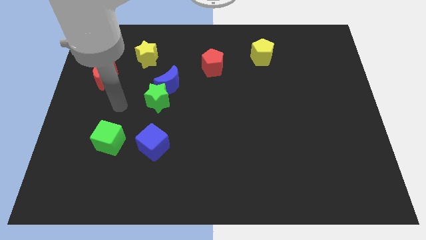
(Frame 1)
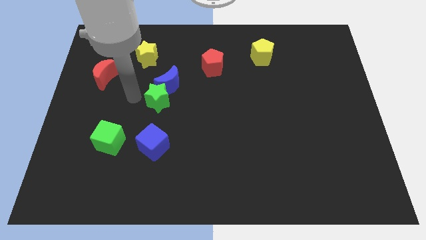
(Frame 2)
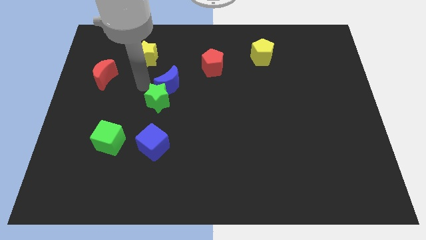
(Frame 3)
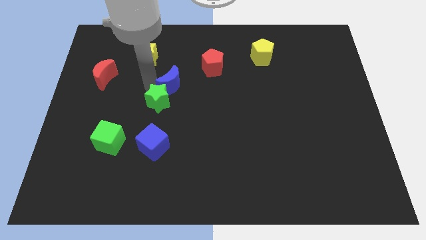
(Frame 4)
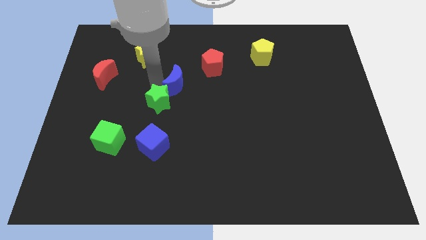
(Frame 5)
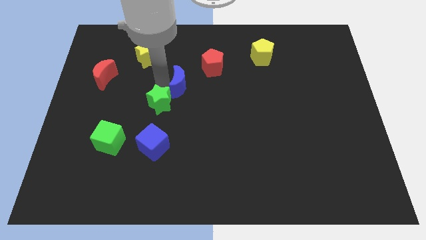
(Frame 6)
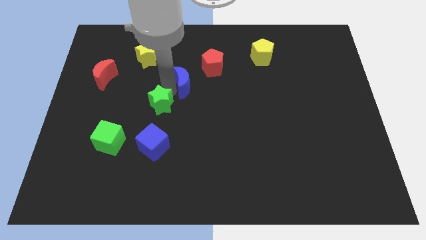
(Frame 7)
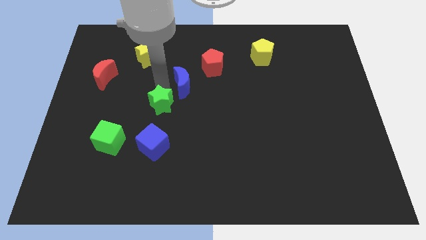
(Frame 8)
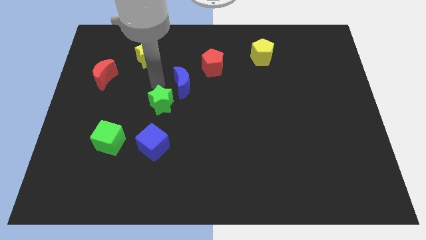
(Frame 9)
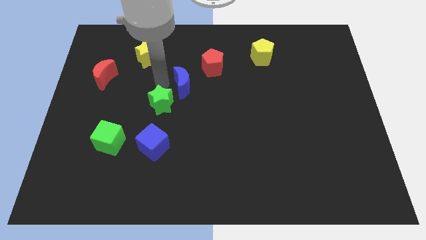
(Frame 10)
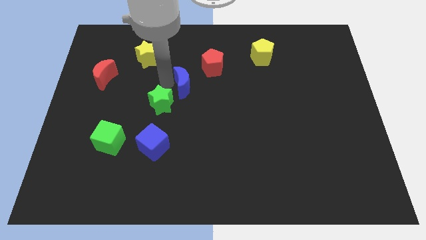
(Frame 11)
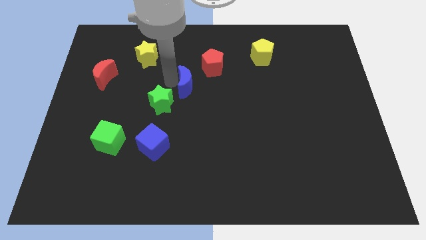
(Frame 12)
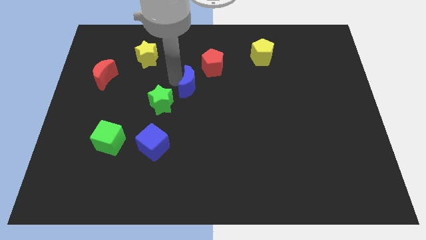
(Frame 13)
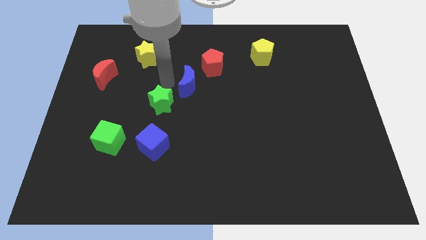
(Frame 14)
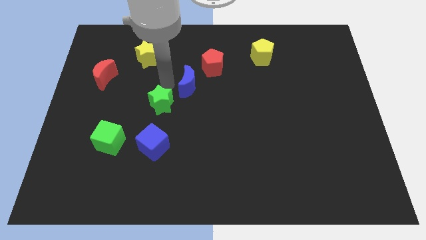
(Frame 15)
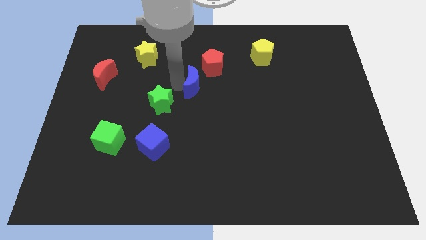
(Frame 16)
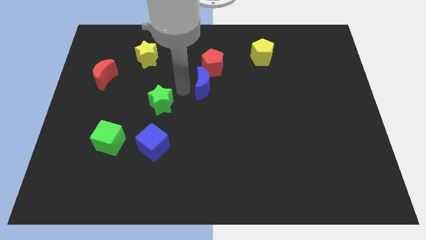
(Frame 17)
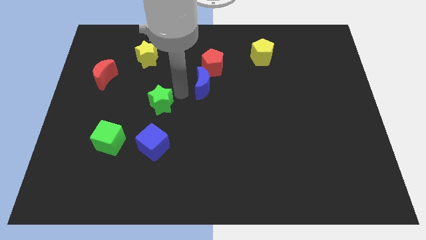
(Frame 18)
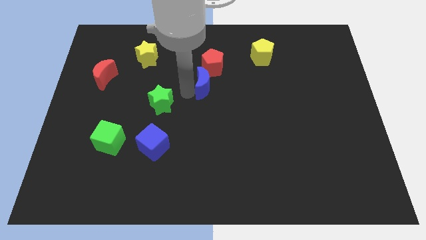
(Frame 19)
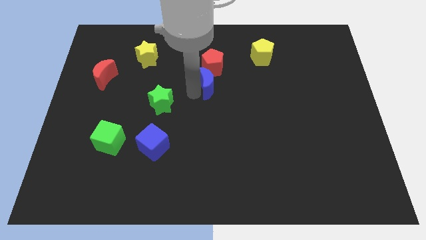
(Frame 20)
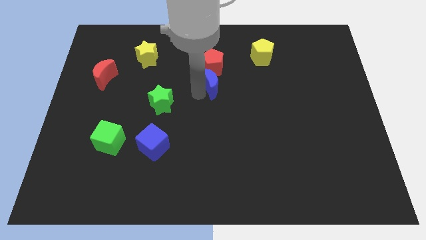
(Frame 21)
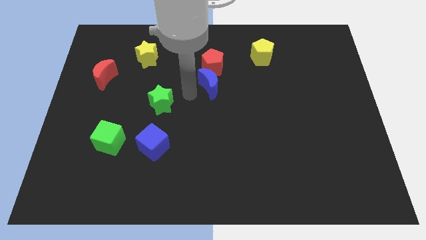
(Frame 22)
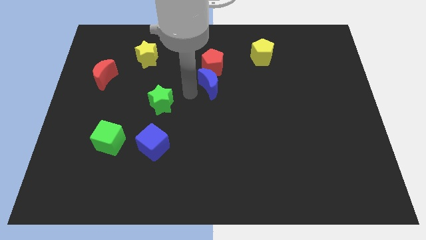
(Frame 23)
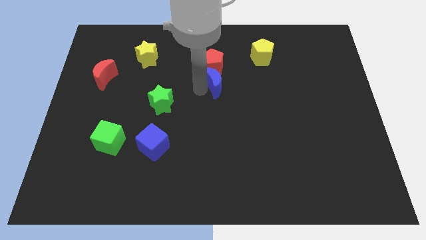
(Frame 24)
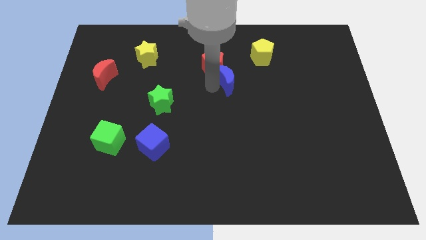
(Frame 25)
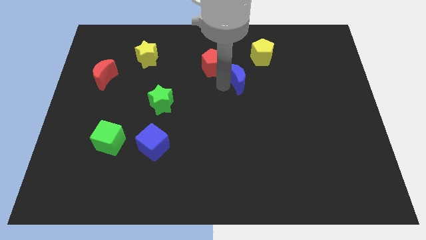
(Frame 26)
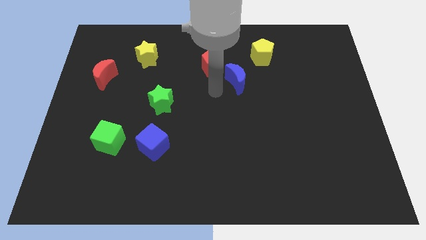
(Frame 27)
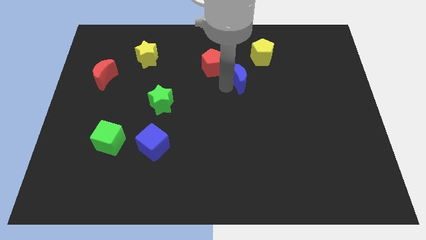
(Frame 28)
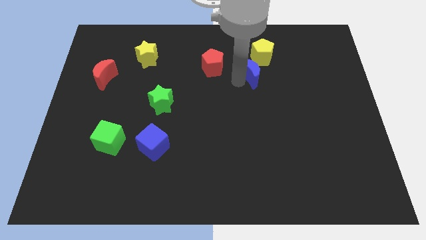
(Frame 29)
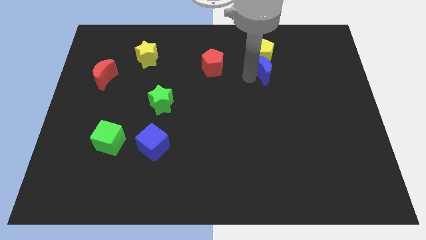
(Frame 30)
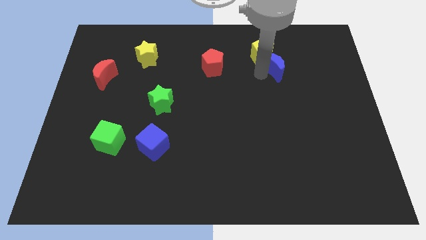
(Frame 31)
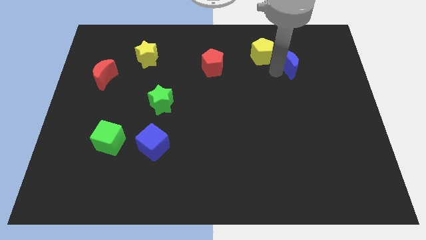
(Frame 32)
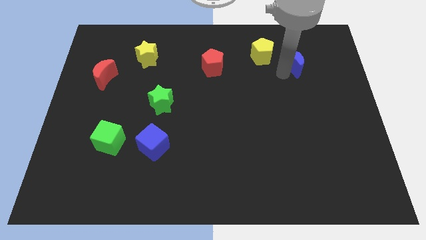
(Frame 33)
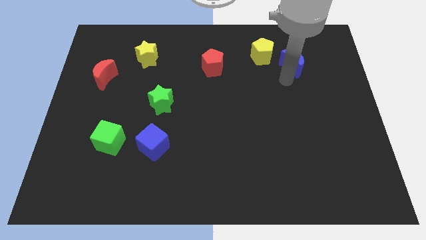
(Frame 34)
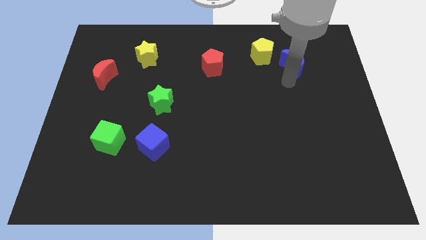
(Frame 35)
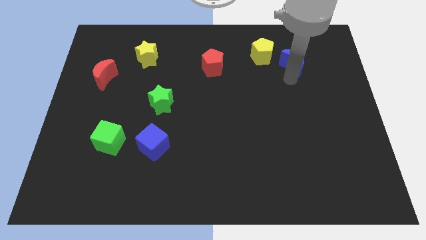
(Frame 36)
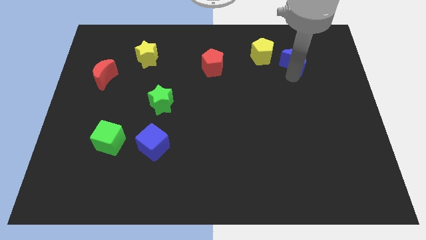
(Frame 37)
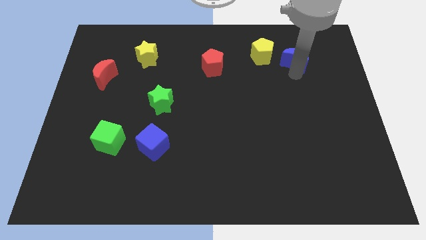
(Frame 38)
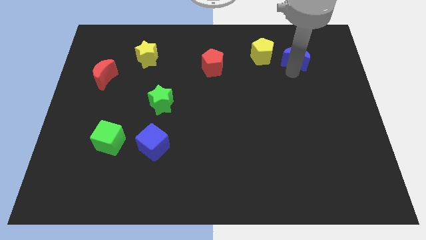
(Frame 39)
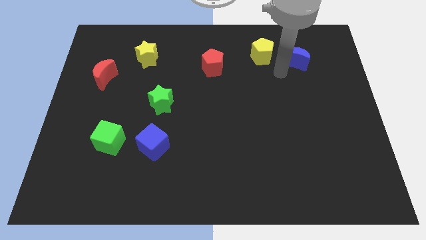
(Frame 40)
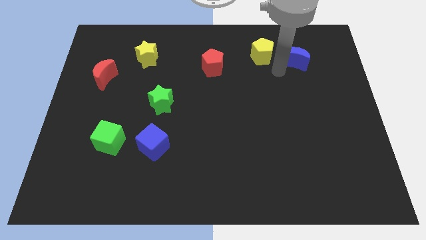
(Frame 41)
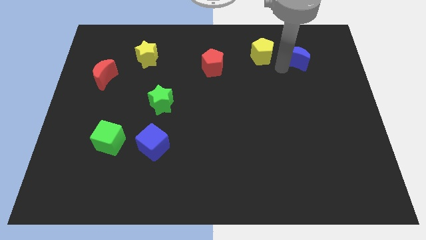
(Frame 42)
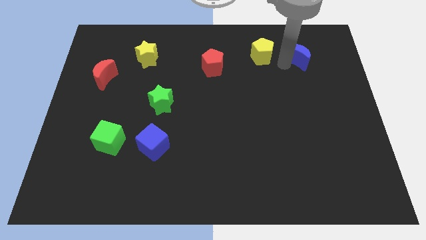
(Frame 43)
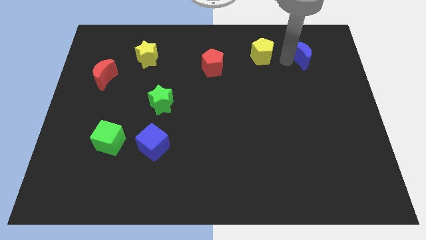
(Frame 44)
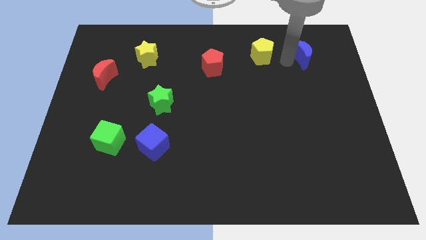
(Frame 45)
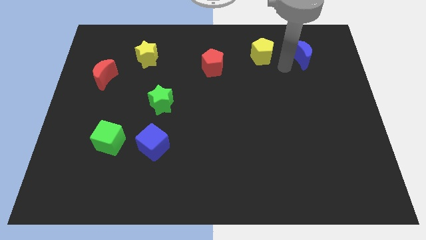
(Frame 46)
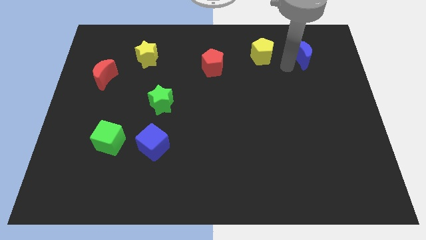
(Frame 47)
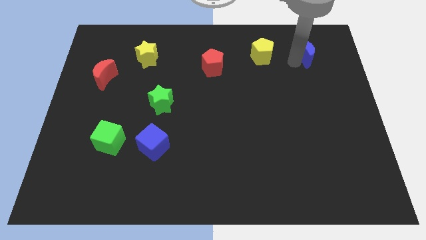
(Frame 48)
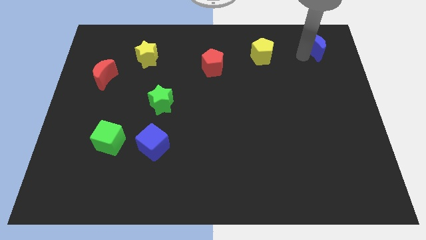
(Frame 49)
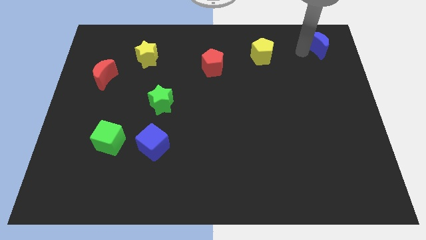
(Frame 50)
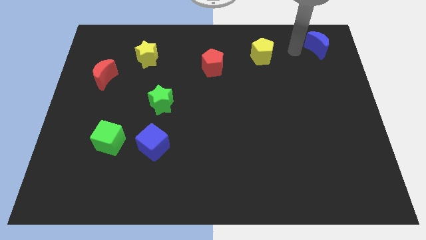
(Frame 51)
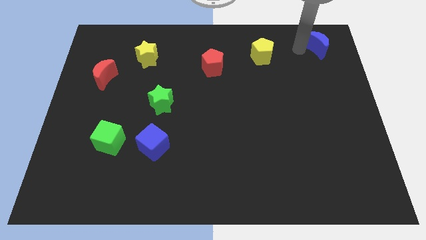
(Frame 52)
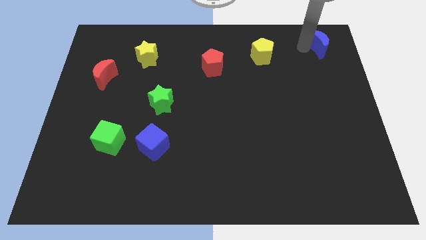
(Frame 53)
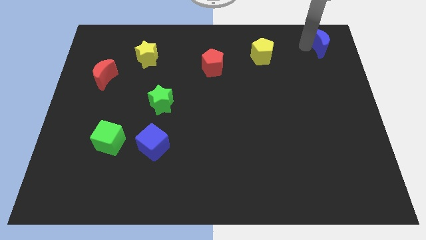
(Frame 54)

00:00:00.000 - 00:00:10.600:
move the blue moon to the upper right corner

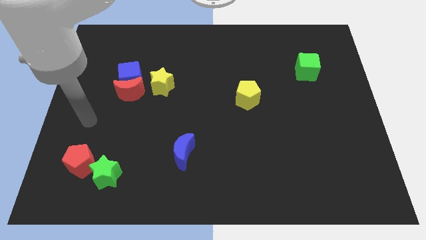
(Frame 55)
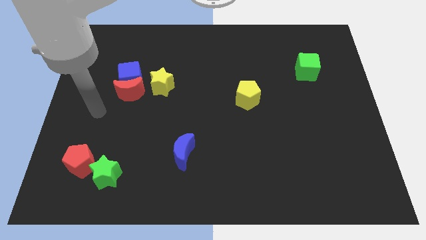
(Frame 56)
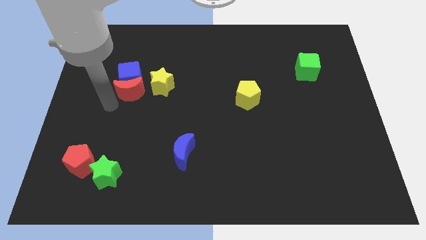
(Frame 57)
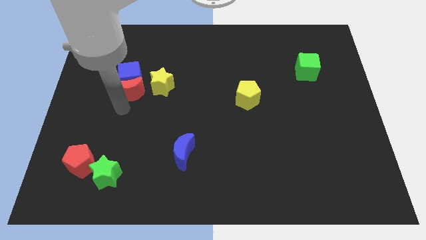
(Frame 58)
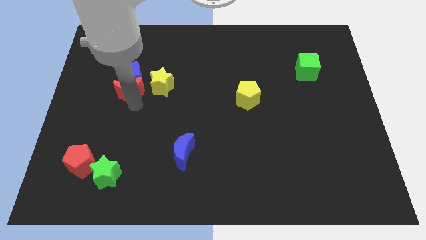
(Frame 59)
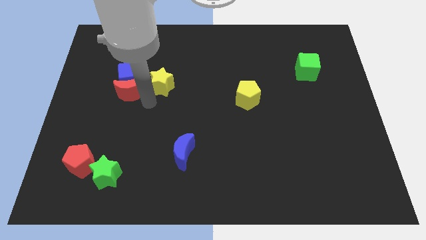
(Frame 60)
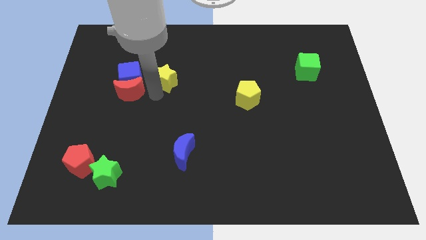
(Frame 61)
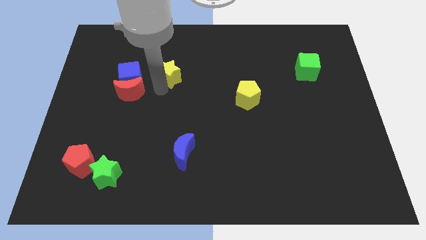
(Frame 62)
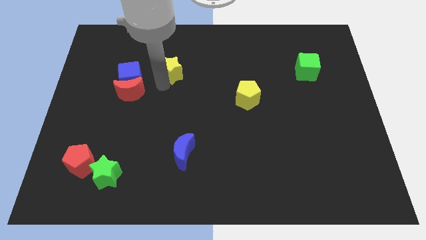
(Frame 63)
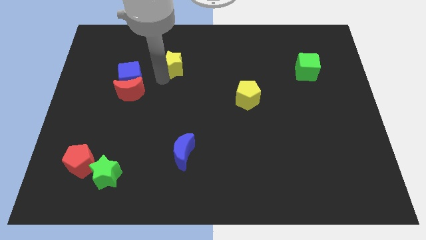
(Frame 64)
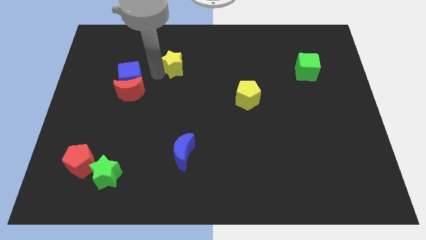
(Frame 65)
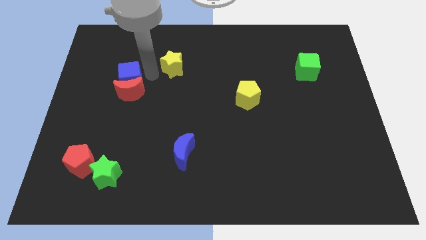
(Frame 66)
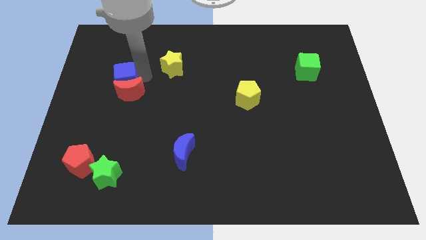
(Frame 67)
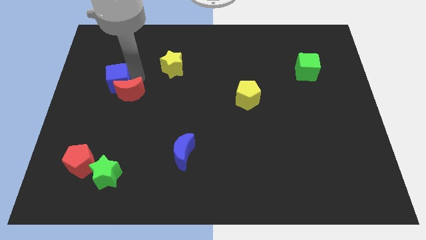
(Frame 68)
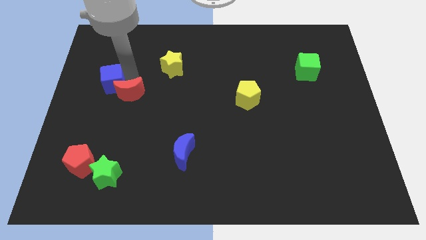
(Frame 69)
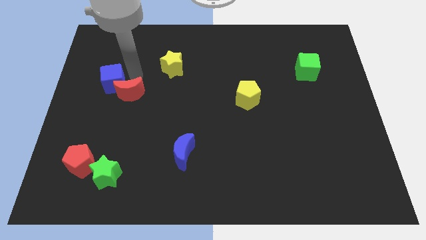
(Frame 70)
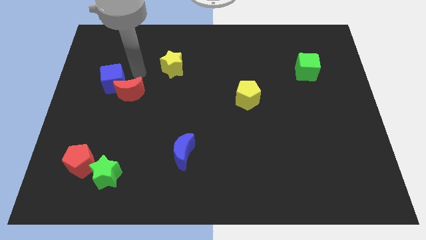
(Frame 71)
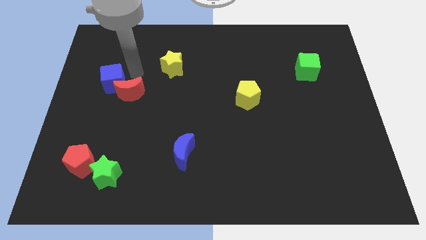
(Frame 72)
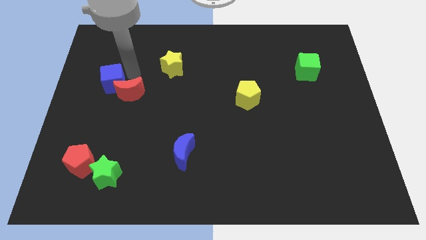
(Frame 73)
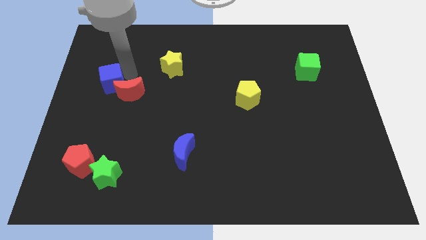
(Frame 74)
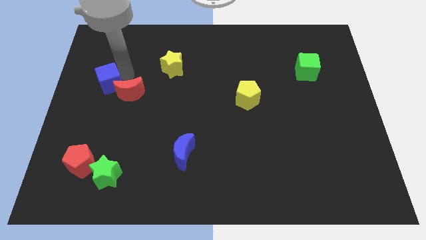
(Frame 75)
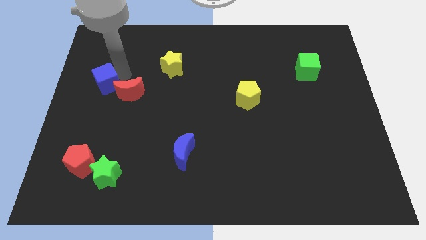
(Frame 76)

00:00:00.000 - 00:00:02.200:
slide the blue cube to the center left
